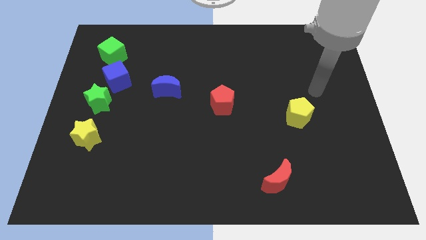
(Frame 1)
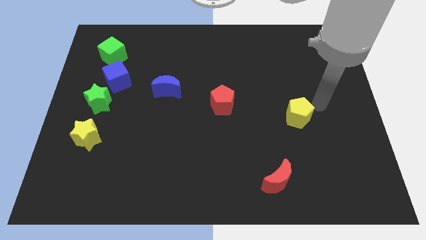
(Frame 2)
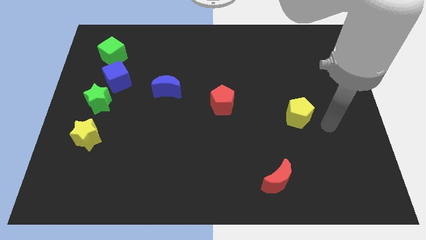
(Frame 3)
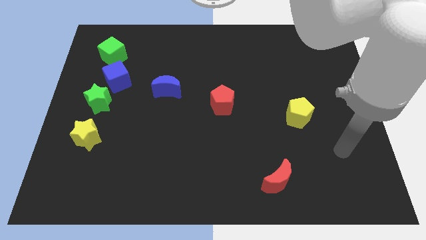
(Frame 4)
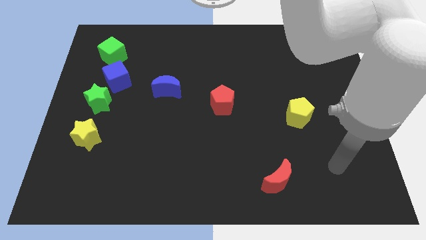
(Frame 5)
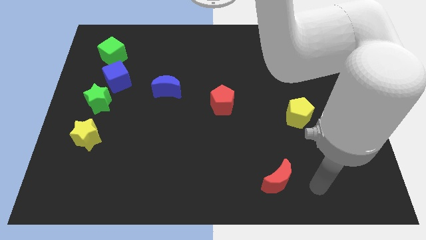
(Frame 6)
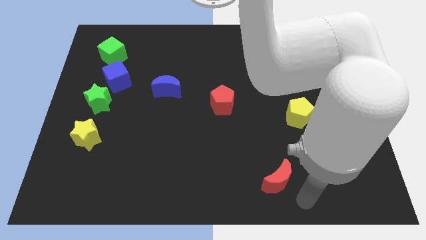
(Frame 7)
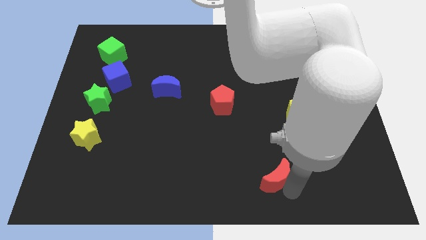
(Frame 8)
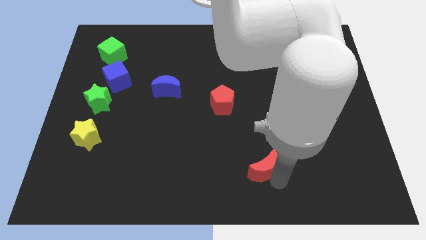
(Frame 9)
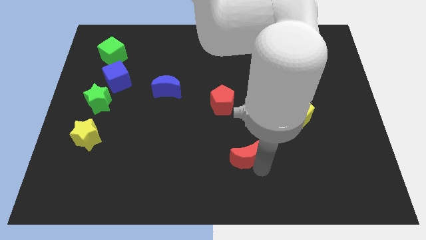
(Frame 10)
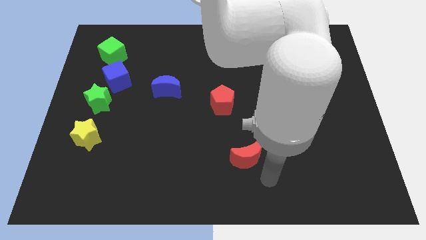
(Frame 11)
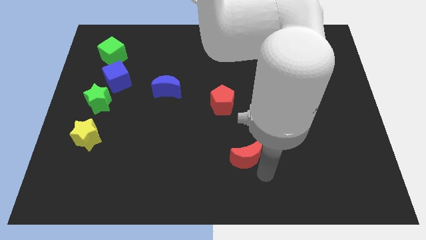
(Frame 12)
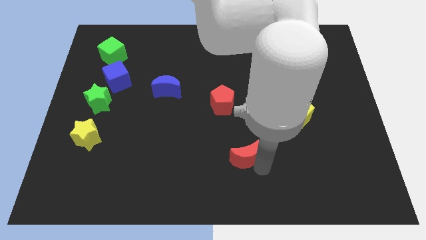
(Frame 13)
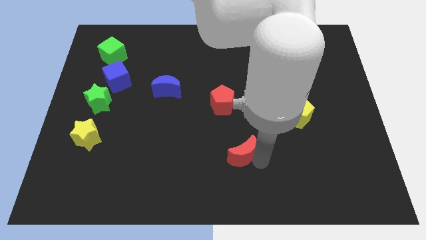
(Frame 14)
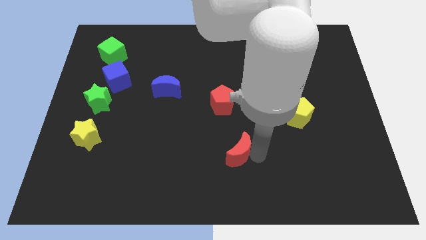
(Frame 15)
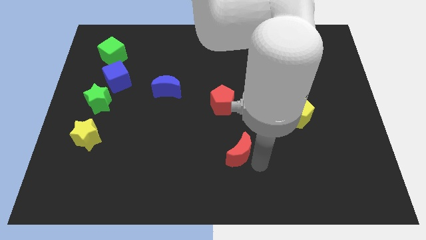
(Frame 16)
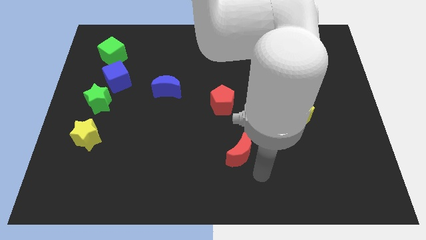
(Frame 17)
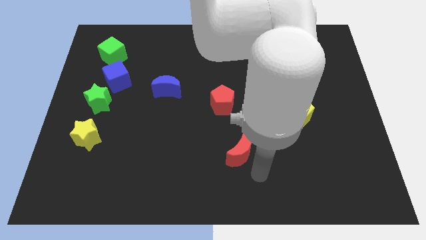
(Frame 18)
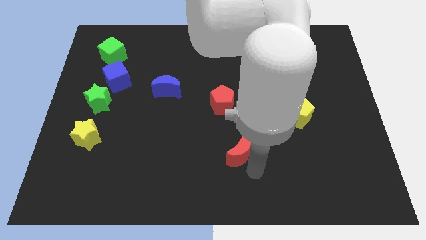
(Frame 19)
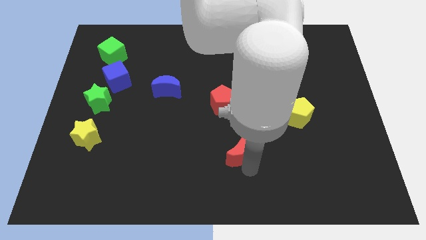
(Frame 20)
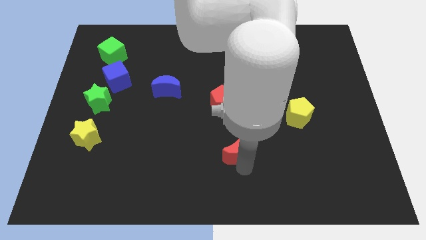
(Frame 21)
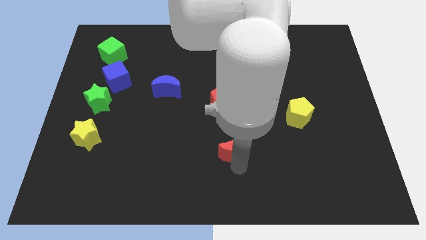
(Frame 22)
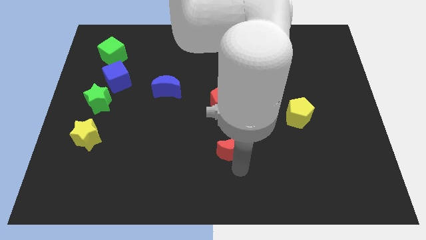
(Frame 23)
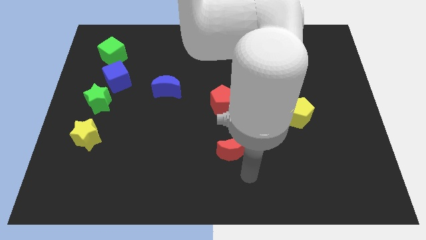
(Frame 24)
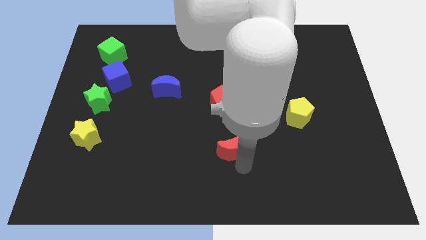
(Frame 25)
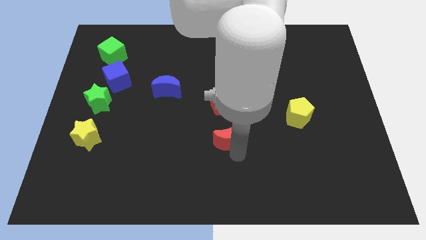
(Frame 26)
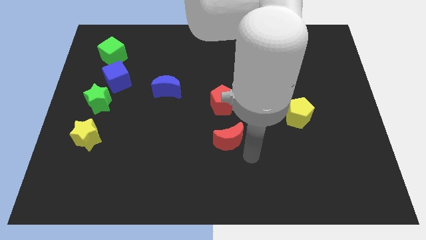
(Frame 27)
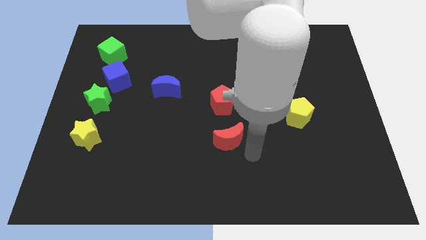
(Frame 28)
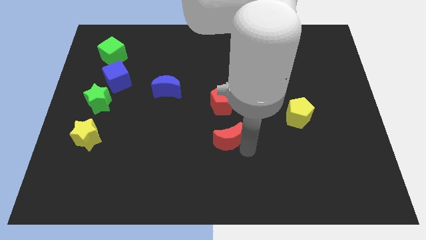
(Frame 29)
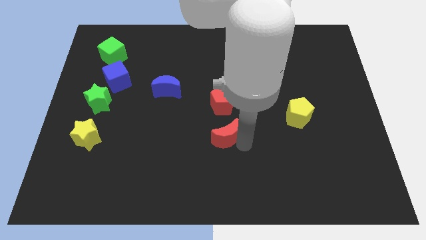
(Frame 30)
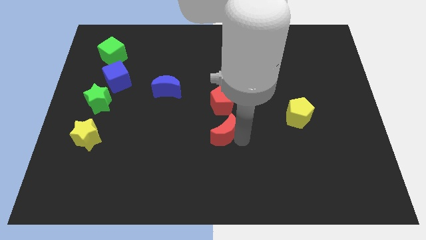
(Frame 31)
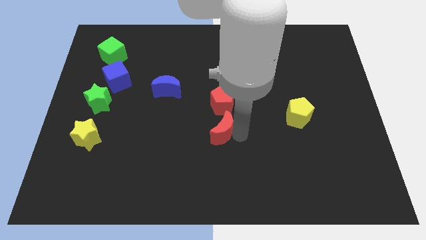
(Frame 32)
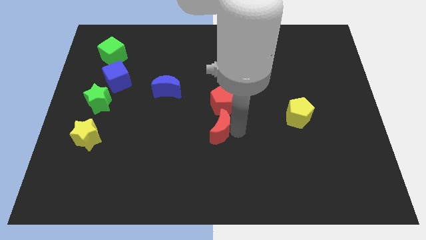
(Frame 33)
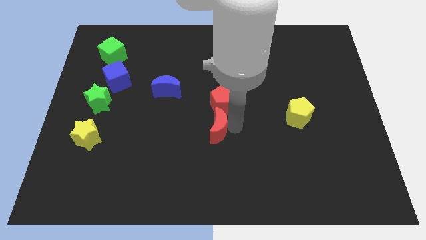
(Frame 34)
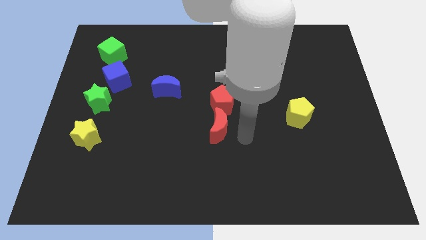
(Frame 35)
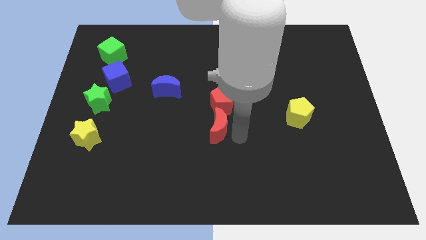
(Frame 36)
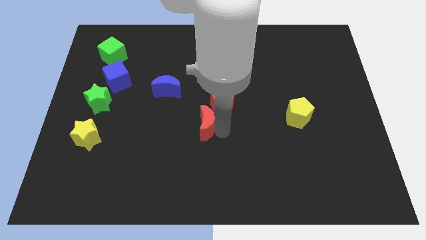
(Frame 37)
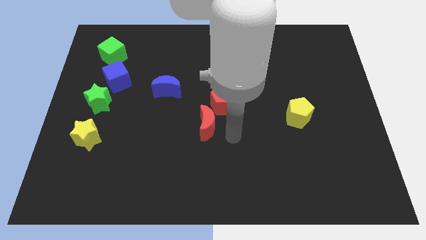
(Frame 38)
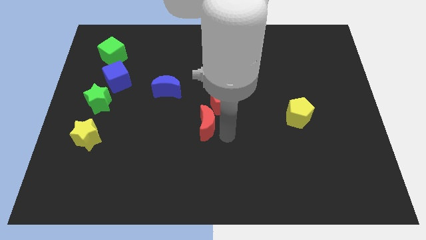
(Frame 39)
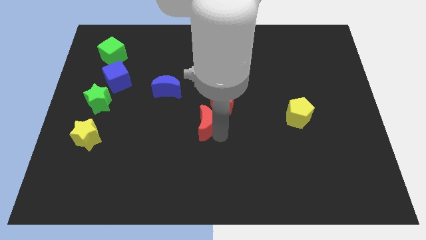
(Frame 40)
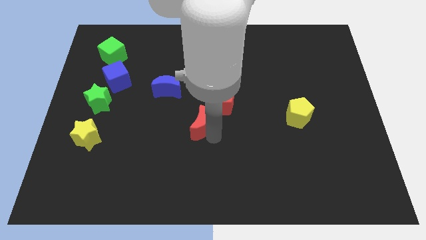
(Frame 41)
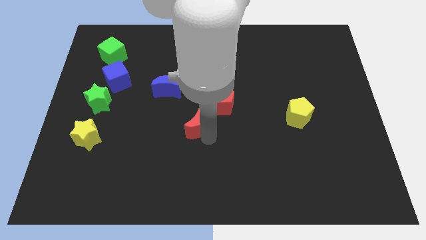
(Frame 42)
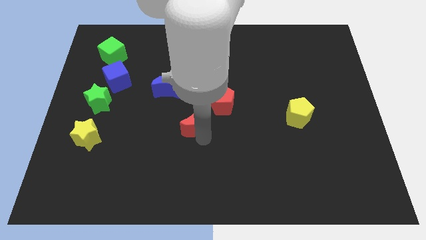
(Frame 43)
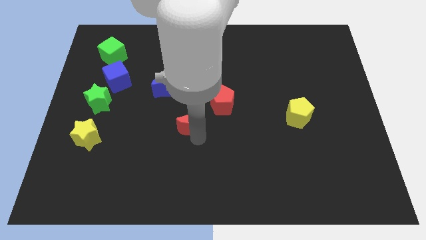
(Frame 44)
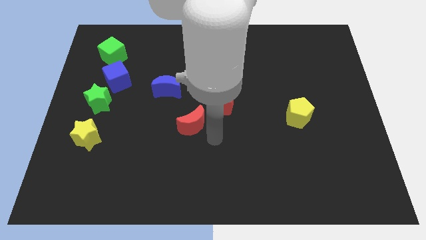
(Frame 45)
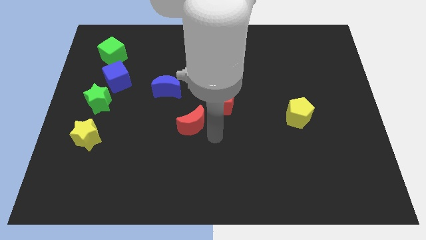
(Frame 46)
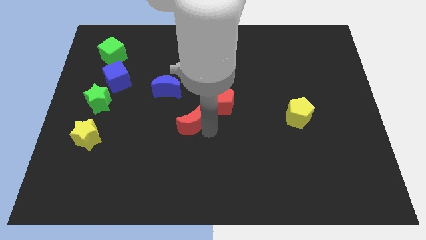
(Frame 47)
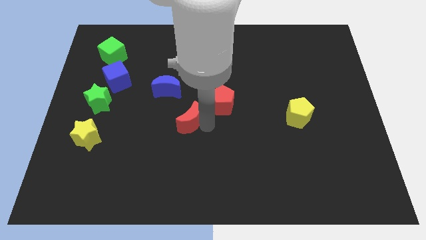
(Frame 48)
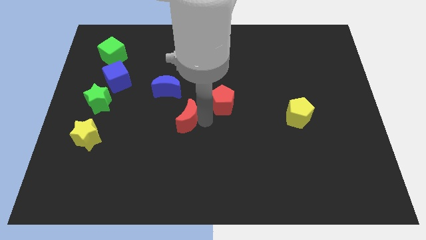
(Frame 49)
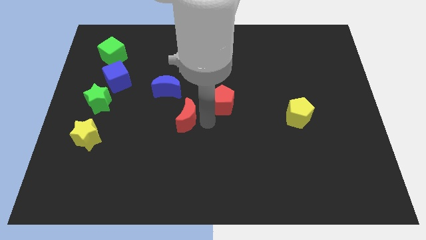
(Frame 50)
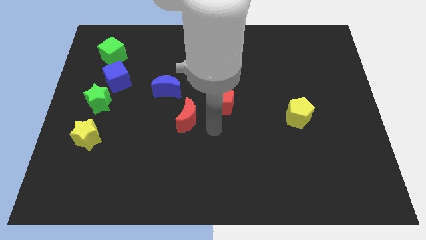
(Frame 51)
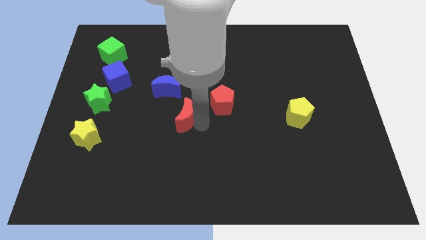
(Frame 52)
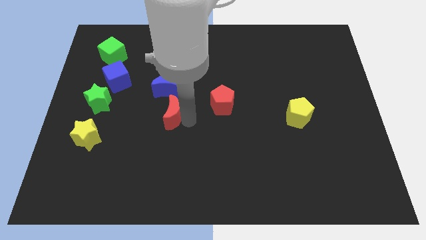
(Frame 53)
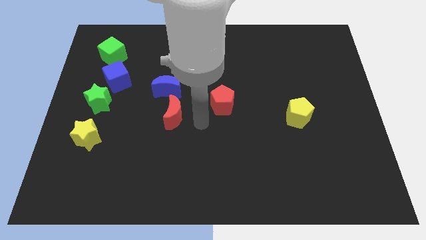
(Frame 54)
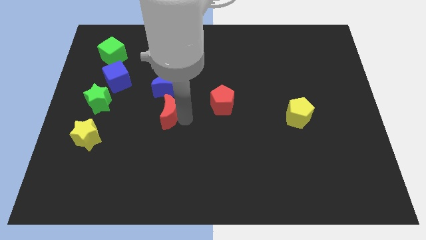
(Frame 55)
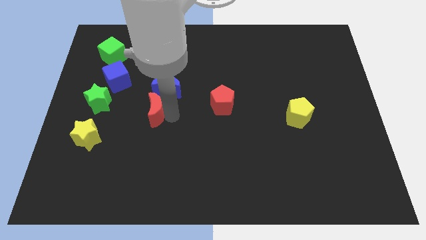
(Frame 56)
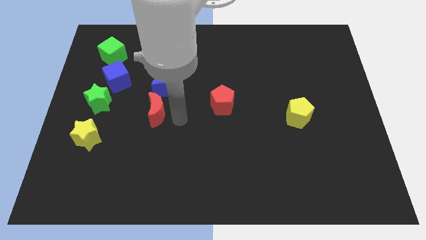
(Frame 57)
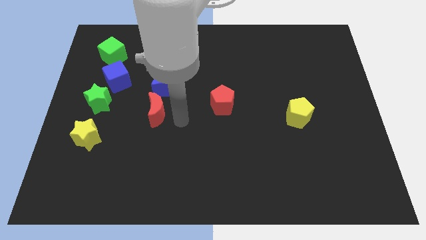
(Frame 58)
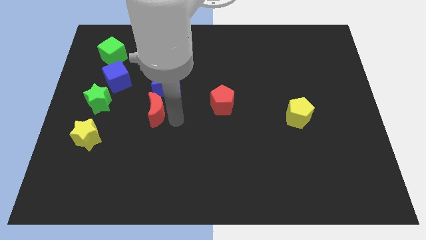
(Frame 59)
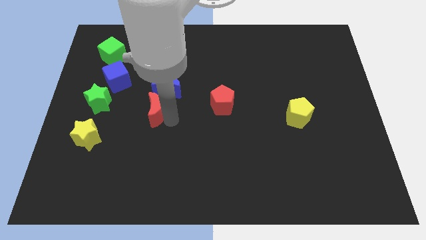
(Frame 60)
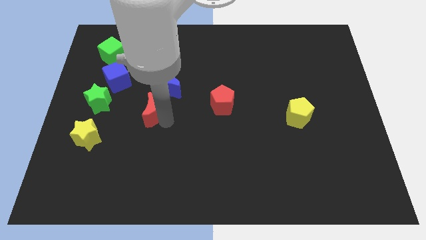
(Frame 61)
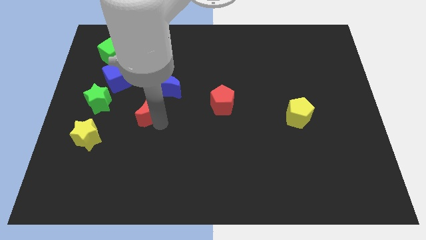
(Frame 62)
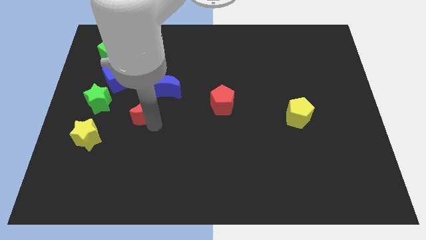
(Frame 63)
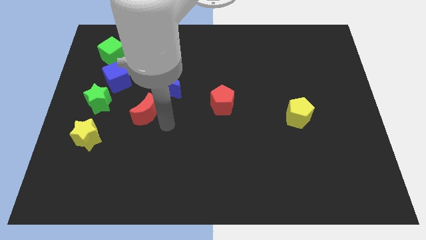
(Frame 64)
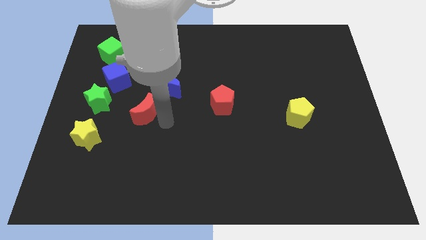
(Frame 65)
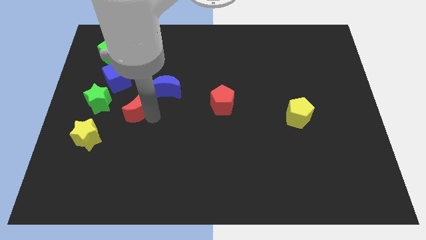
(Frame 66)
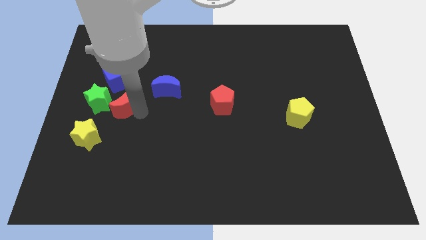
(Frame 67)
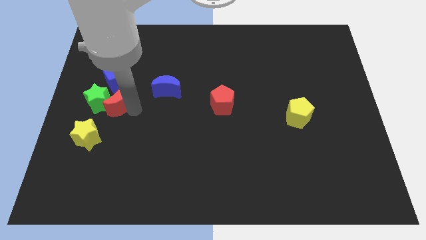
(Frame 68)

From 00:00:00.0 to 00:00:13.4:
put the red moon next to the green star

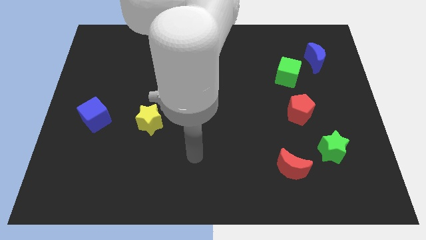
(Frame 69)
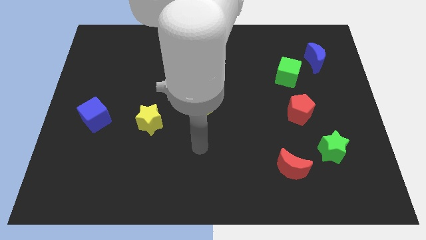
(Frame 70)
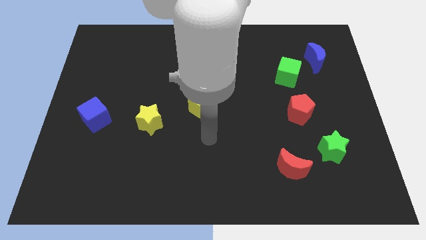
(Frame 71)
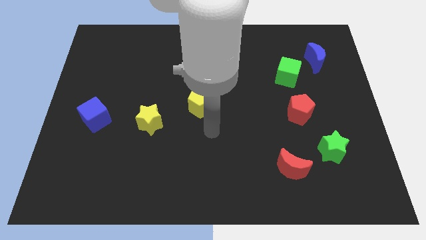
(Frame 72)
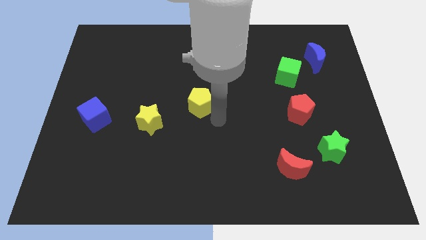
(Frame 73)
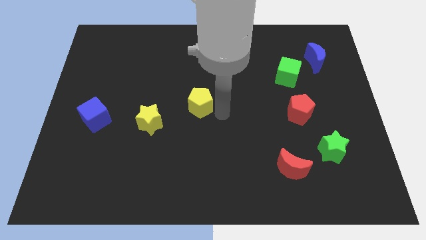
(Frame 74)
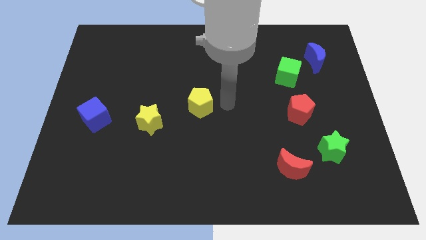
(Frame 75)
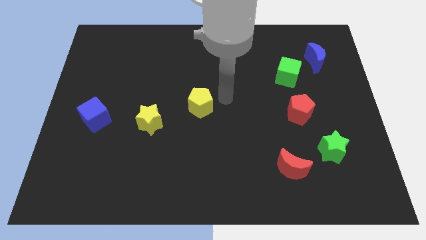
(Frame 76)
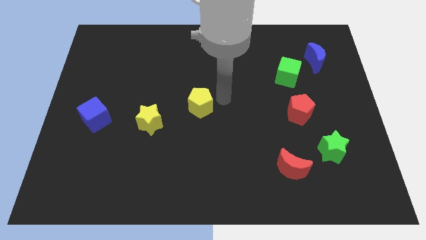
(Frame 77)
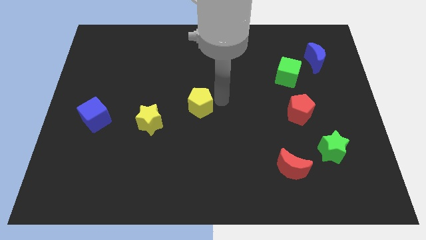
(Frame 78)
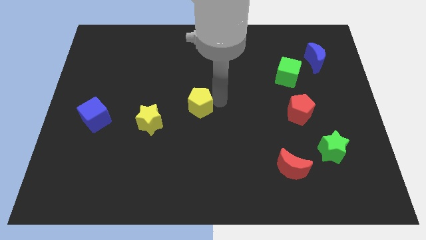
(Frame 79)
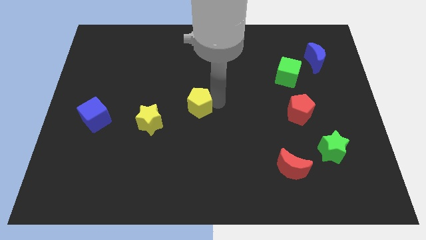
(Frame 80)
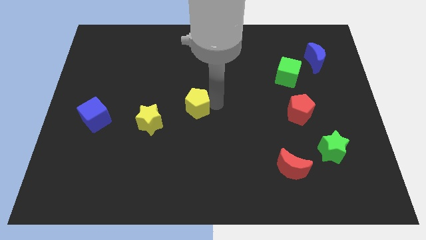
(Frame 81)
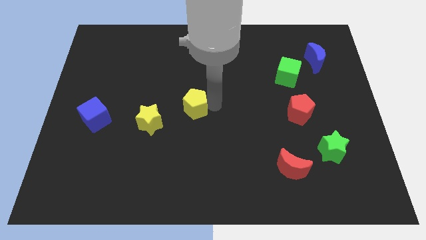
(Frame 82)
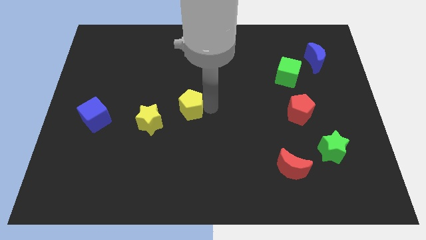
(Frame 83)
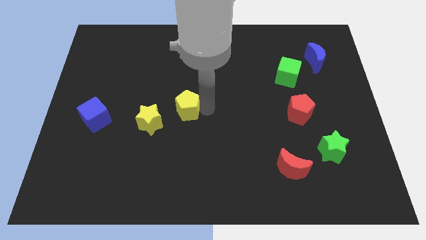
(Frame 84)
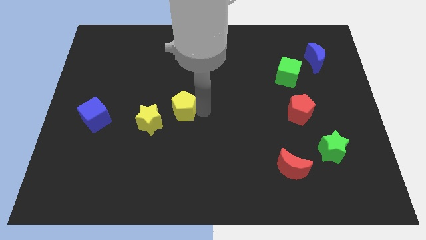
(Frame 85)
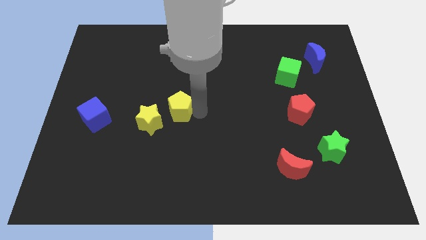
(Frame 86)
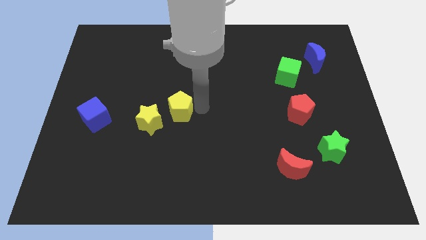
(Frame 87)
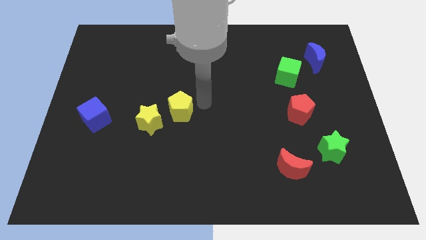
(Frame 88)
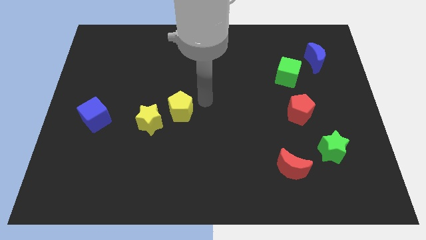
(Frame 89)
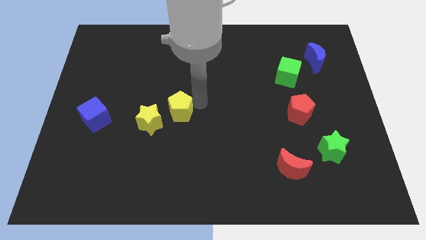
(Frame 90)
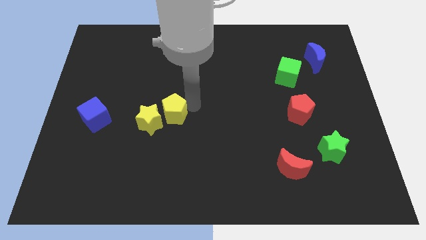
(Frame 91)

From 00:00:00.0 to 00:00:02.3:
move the yellow pentagon to the yellow star
